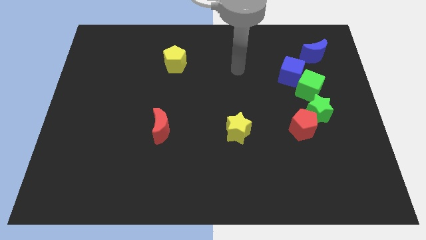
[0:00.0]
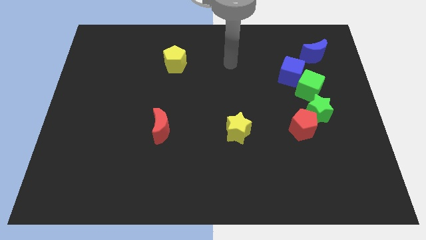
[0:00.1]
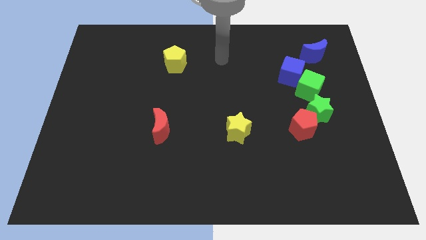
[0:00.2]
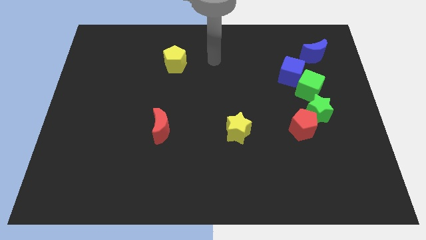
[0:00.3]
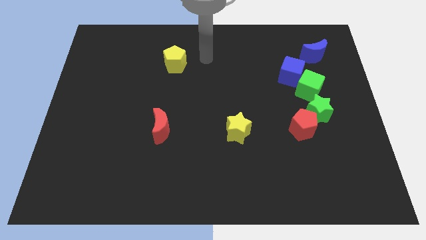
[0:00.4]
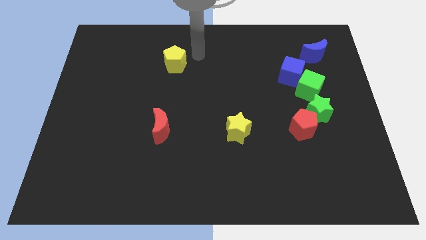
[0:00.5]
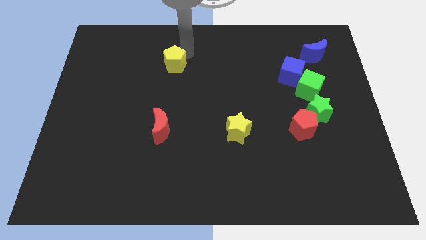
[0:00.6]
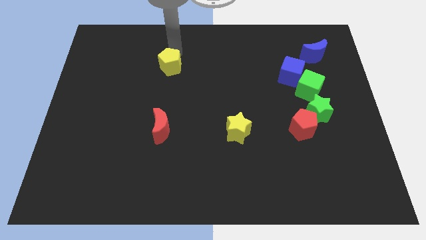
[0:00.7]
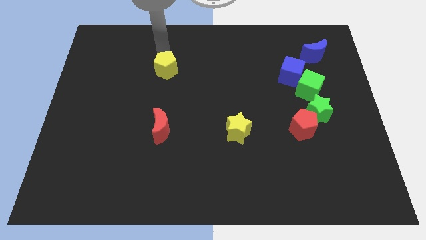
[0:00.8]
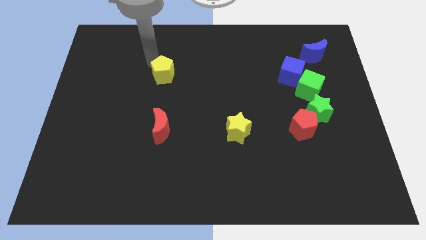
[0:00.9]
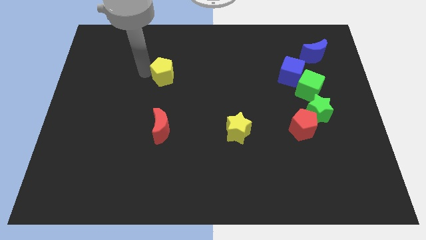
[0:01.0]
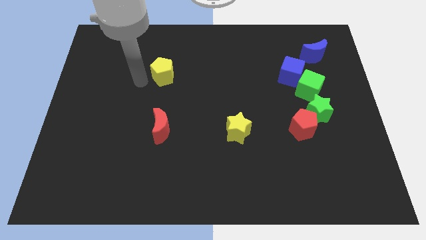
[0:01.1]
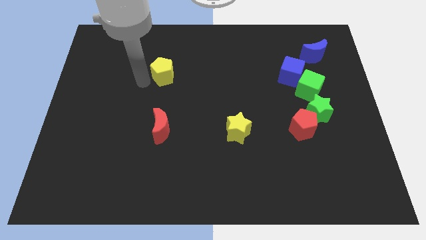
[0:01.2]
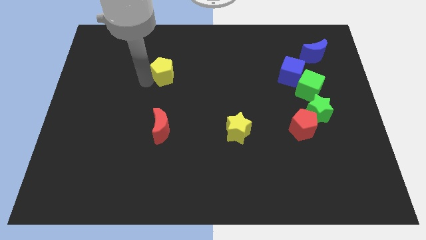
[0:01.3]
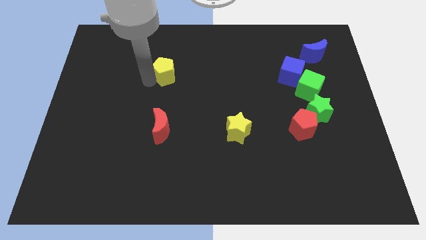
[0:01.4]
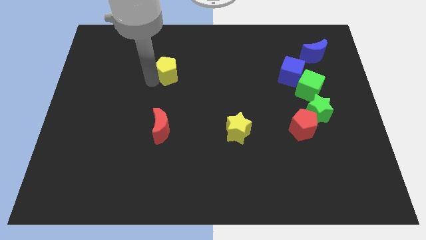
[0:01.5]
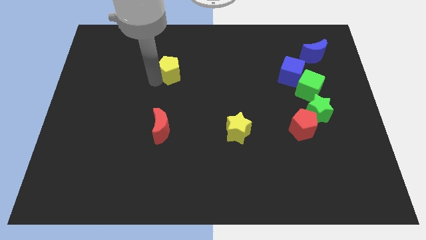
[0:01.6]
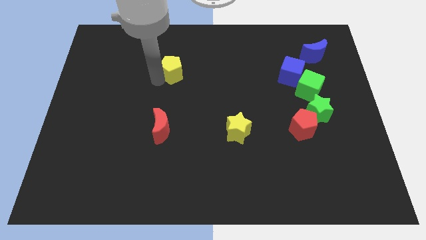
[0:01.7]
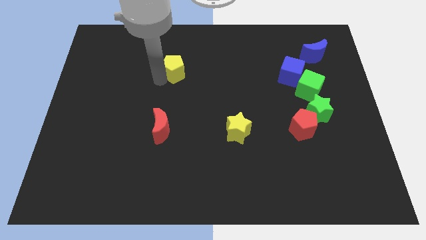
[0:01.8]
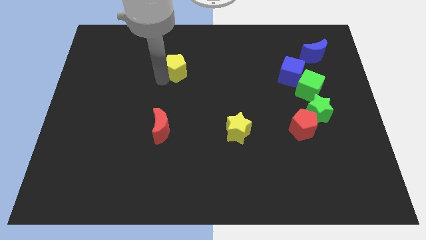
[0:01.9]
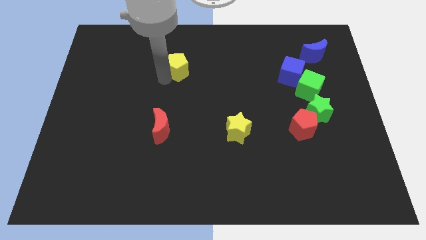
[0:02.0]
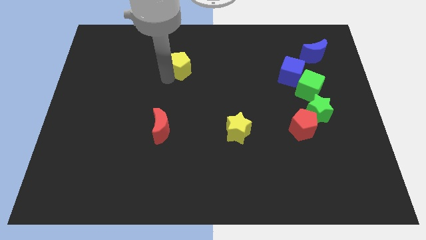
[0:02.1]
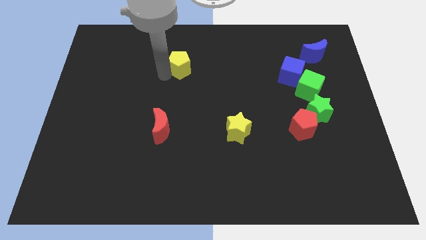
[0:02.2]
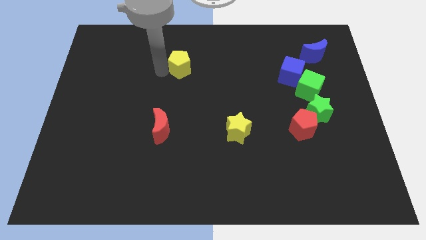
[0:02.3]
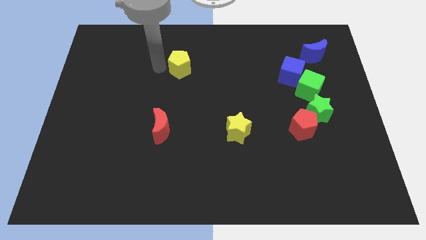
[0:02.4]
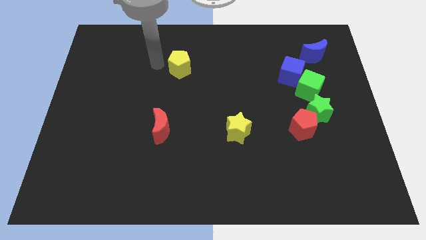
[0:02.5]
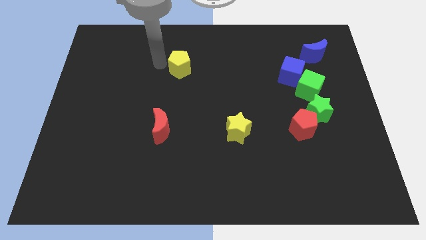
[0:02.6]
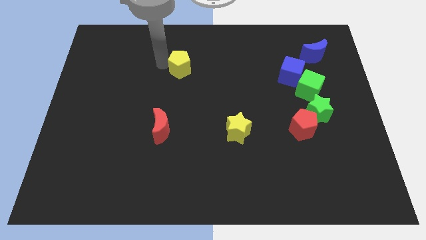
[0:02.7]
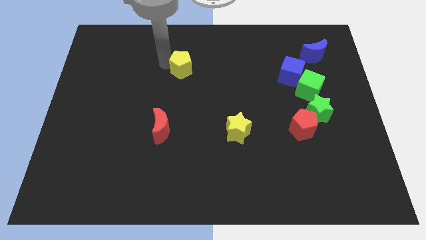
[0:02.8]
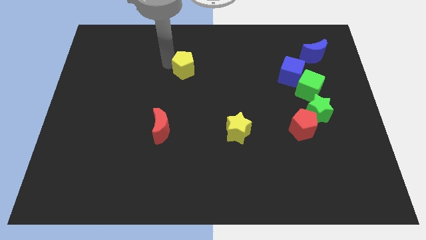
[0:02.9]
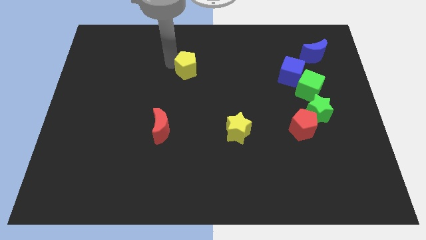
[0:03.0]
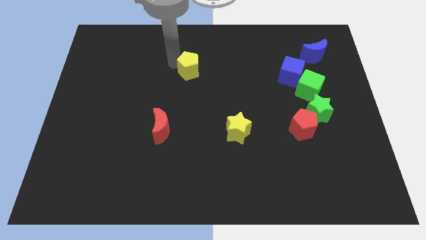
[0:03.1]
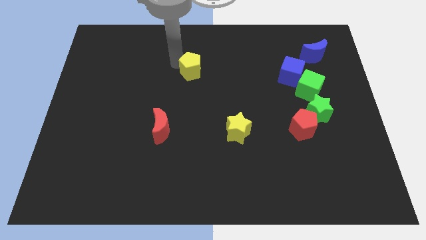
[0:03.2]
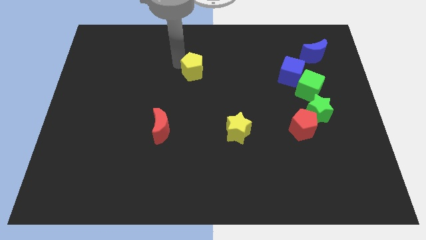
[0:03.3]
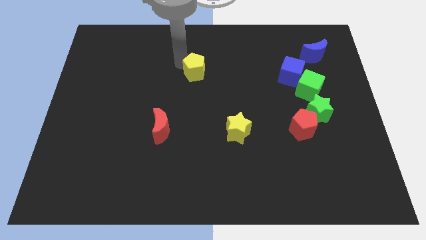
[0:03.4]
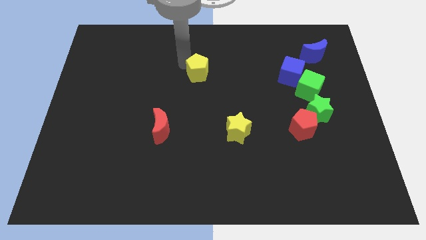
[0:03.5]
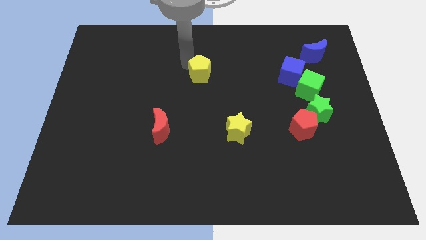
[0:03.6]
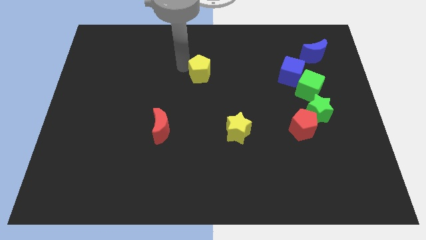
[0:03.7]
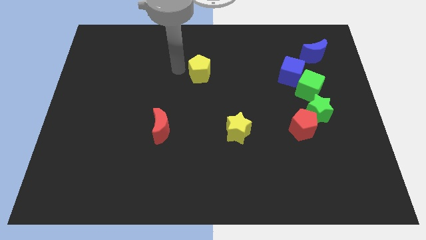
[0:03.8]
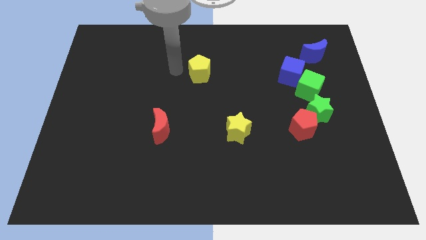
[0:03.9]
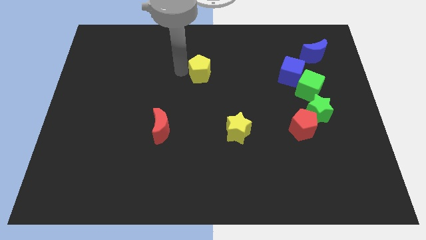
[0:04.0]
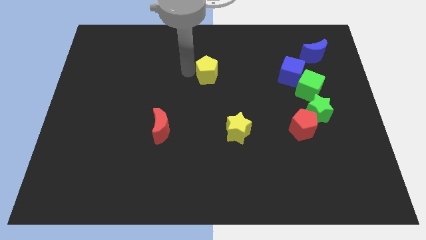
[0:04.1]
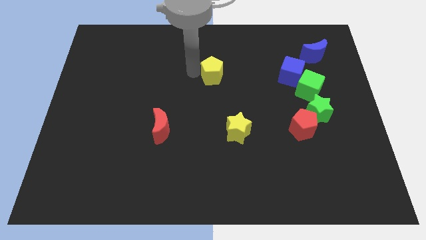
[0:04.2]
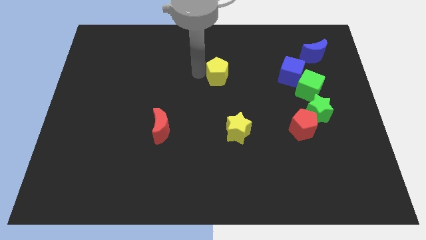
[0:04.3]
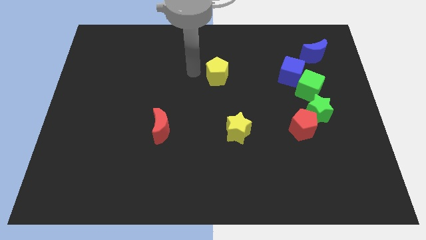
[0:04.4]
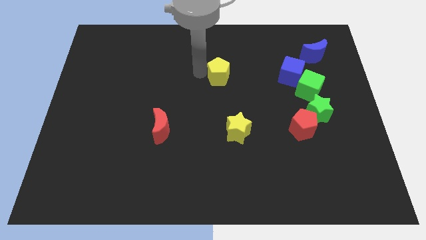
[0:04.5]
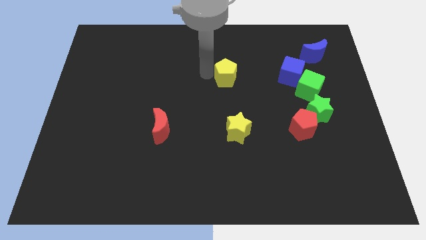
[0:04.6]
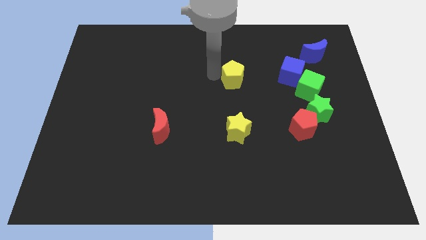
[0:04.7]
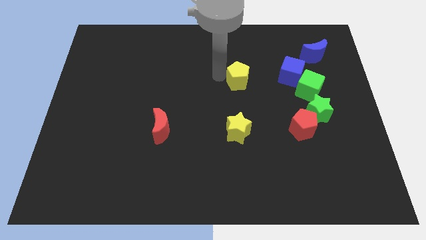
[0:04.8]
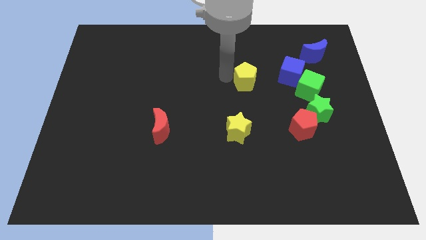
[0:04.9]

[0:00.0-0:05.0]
put the yellow pentagon just left of the green cube

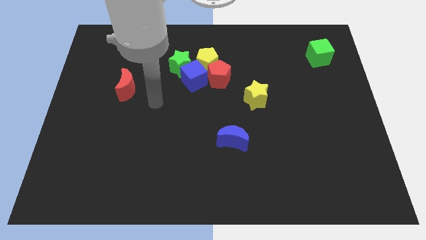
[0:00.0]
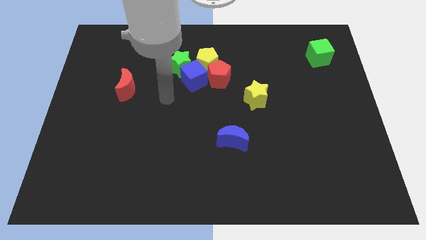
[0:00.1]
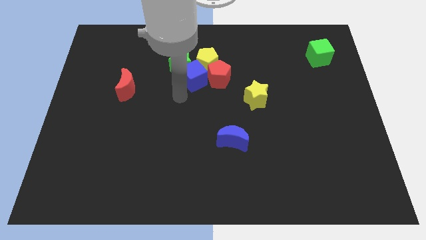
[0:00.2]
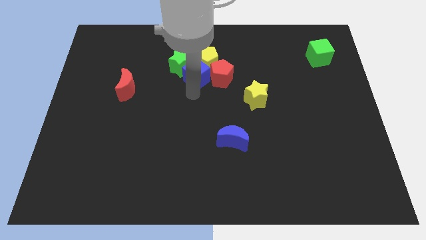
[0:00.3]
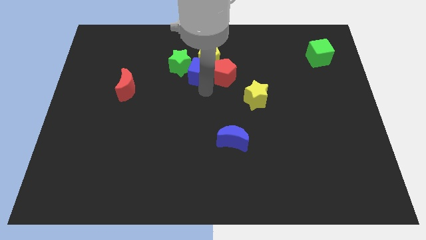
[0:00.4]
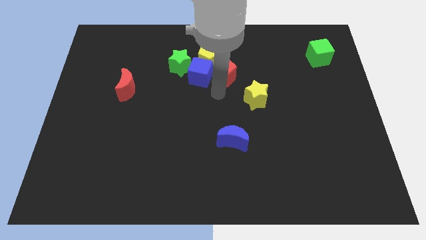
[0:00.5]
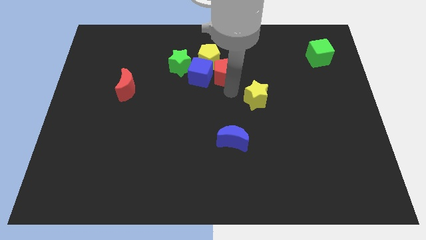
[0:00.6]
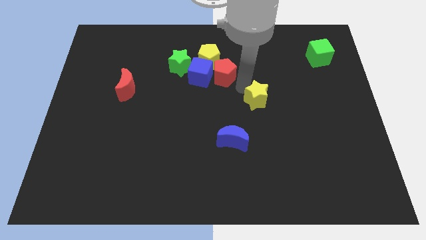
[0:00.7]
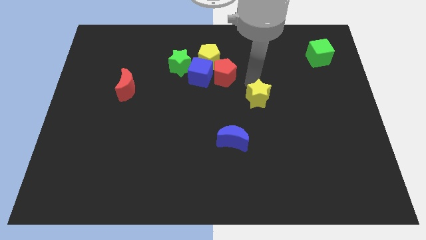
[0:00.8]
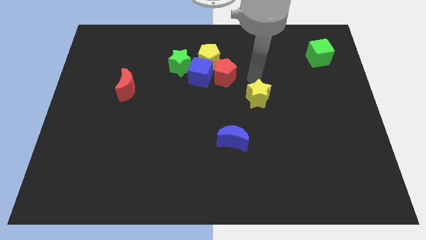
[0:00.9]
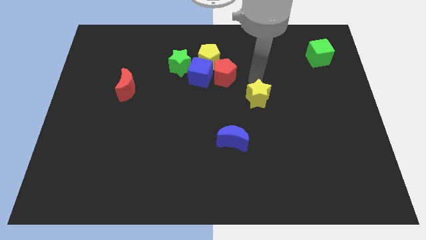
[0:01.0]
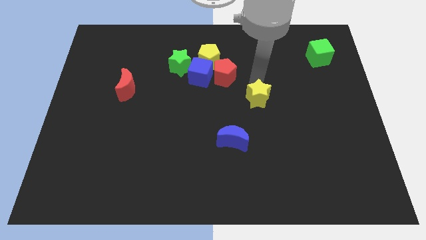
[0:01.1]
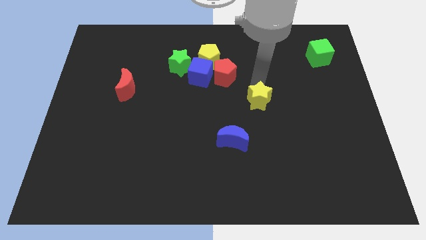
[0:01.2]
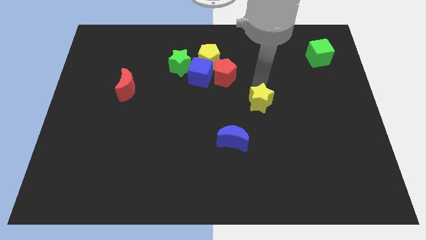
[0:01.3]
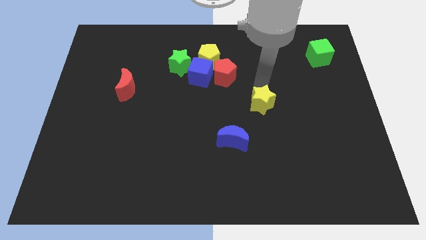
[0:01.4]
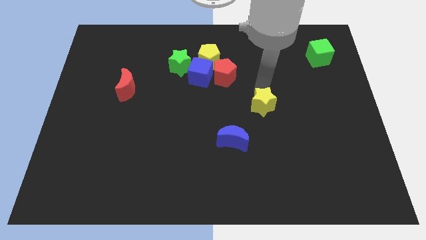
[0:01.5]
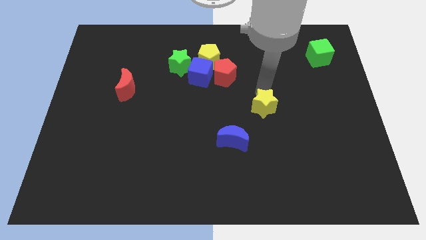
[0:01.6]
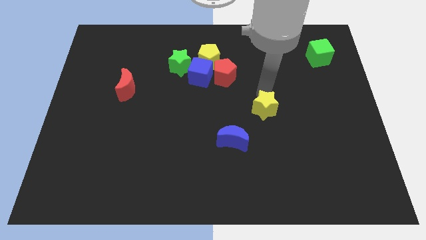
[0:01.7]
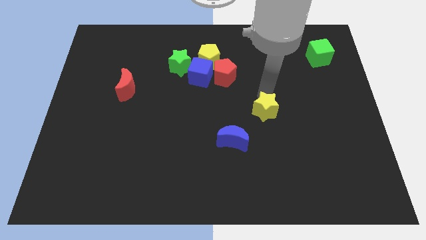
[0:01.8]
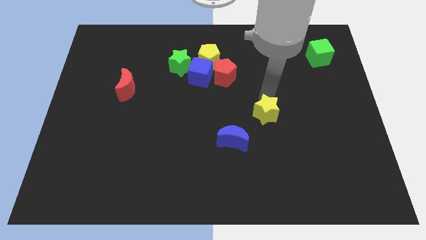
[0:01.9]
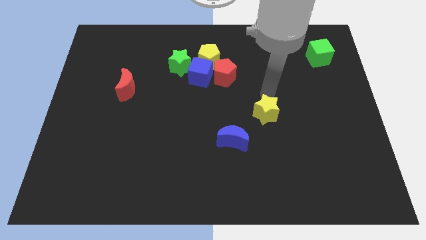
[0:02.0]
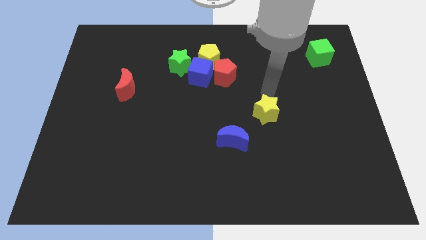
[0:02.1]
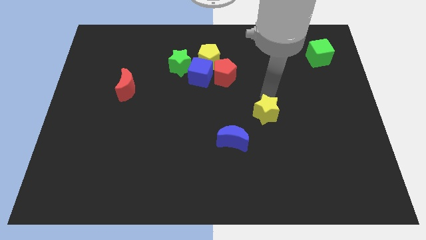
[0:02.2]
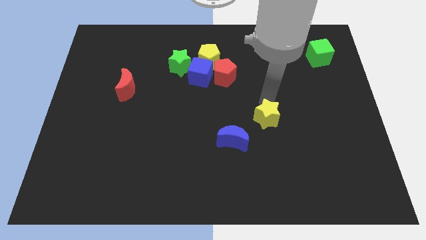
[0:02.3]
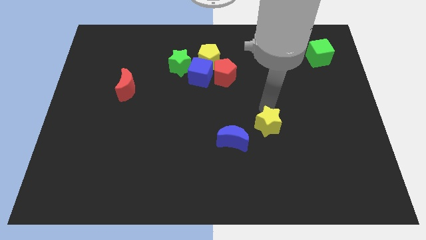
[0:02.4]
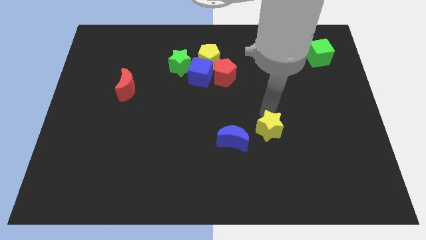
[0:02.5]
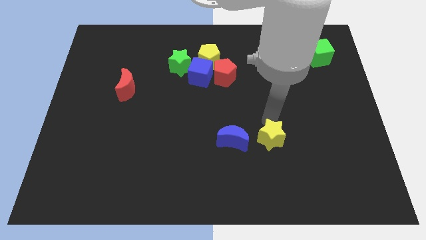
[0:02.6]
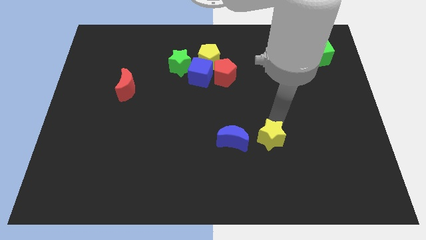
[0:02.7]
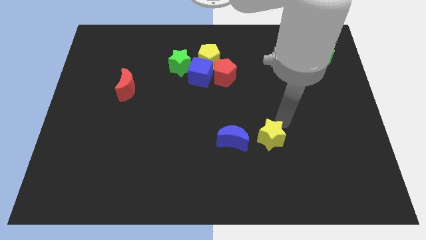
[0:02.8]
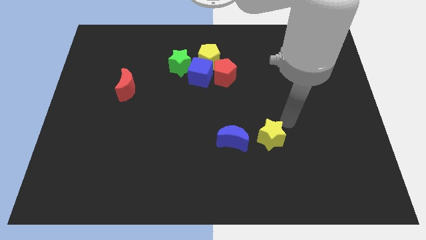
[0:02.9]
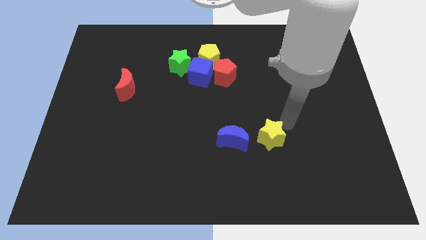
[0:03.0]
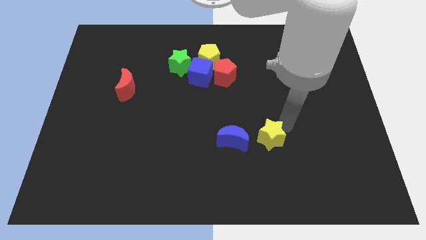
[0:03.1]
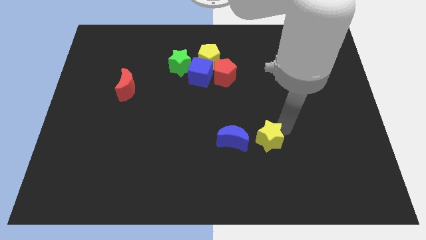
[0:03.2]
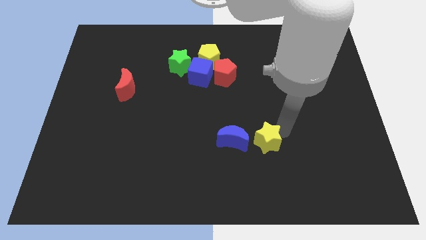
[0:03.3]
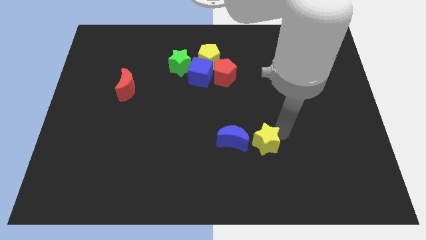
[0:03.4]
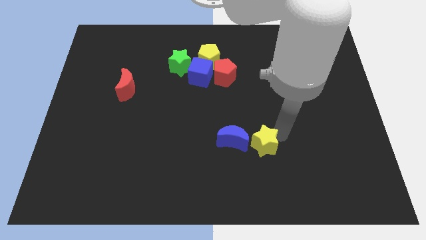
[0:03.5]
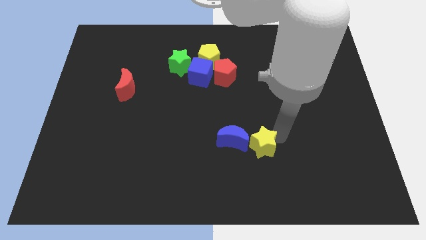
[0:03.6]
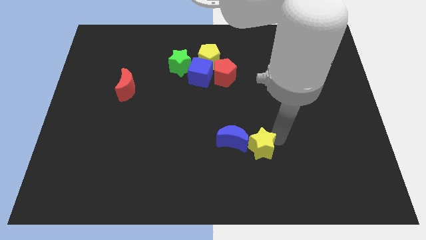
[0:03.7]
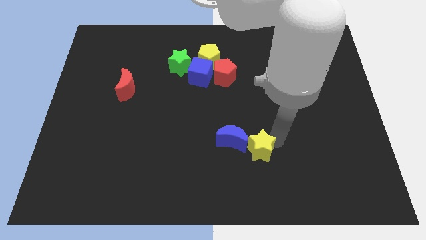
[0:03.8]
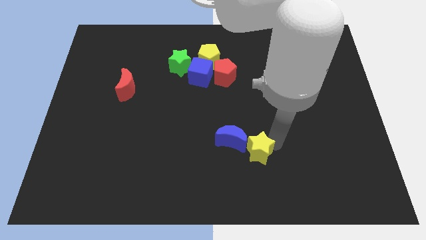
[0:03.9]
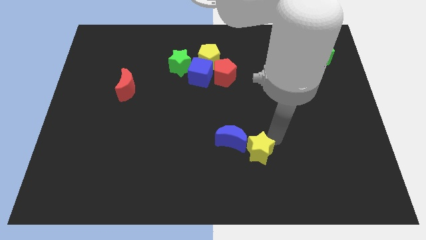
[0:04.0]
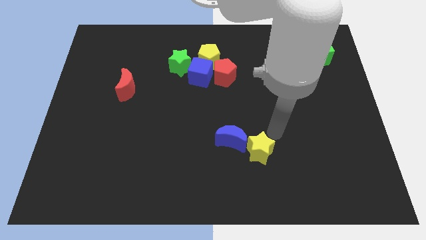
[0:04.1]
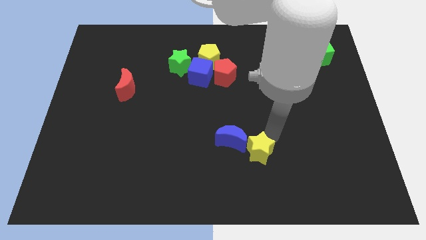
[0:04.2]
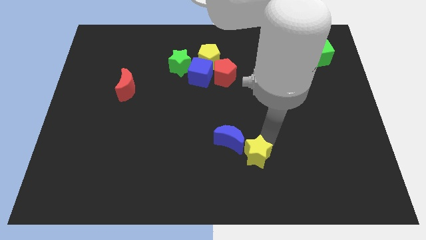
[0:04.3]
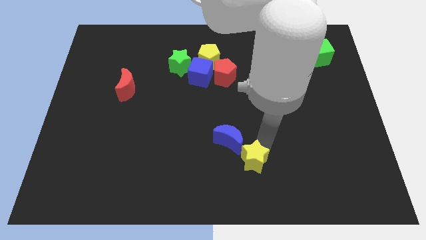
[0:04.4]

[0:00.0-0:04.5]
put the yellow star to the bottom of the blue moon
